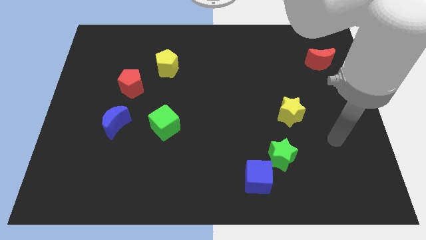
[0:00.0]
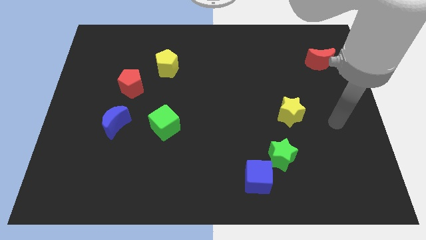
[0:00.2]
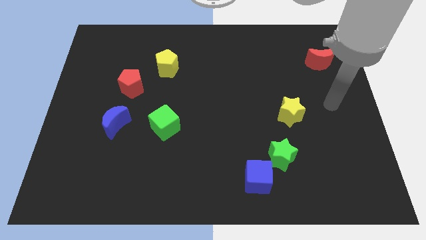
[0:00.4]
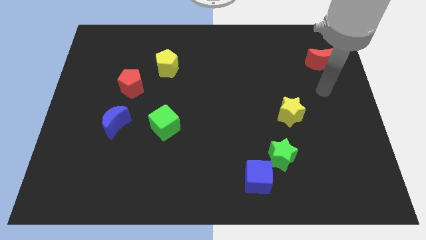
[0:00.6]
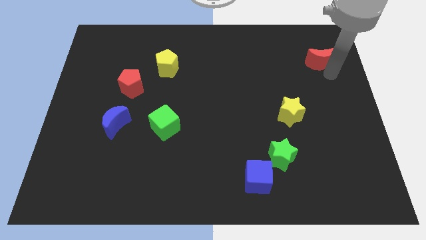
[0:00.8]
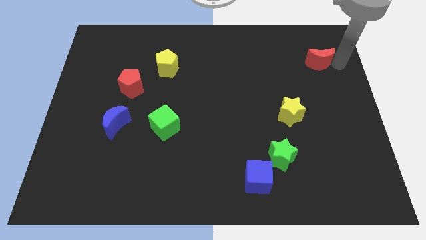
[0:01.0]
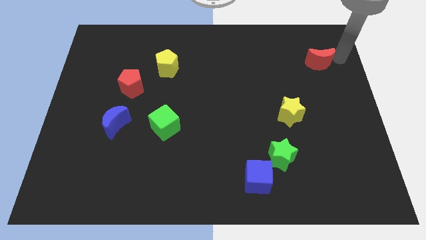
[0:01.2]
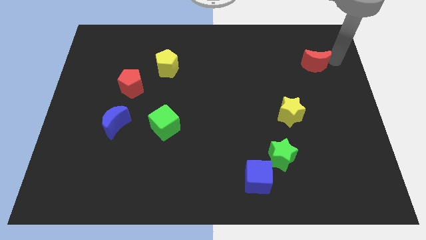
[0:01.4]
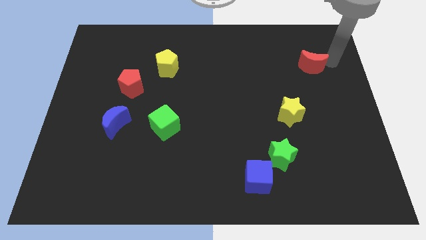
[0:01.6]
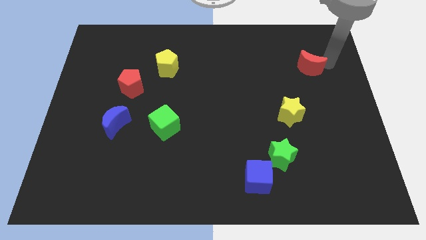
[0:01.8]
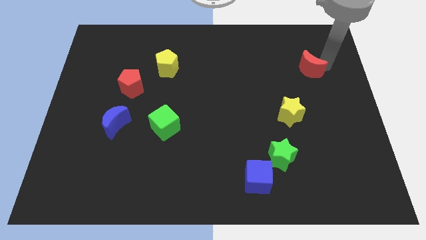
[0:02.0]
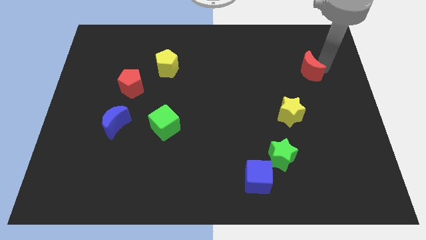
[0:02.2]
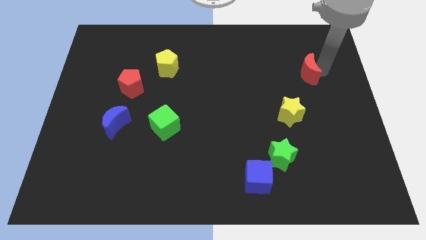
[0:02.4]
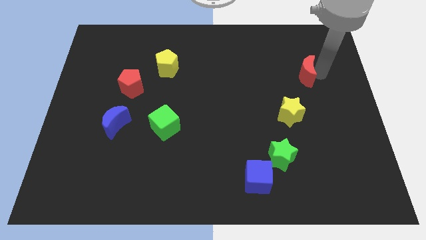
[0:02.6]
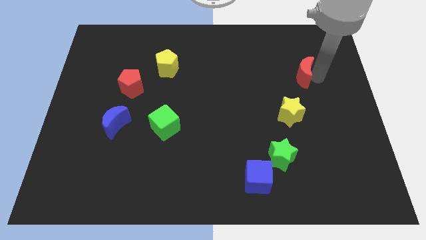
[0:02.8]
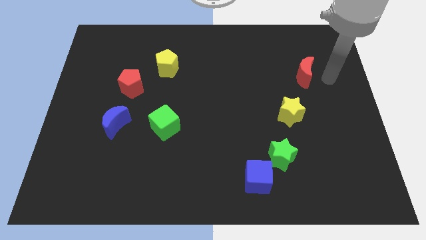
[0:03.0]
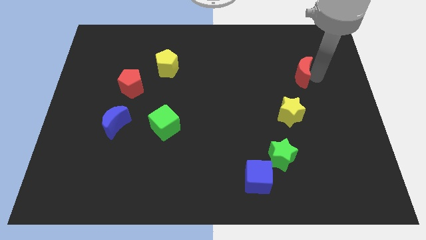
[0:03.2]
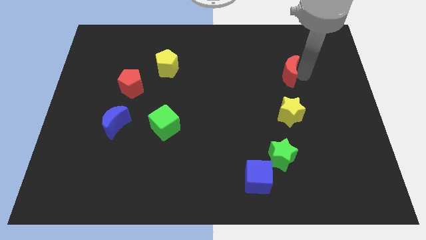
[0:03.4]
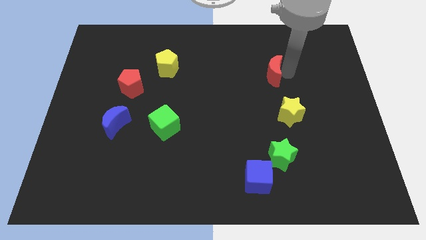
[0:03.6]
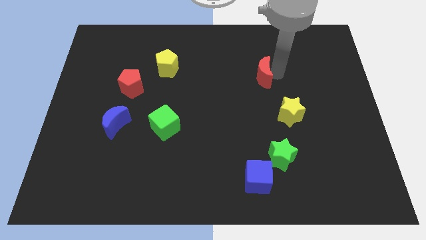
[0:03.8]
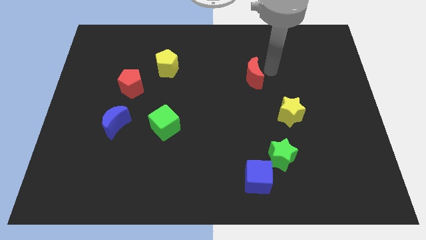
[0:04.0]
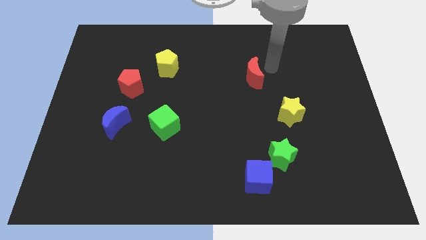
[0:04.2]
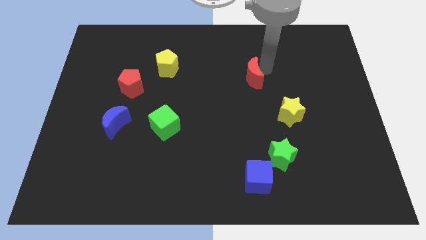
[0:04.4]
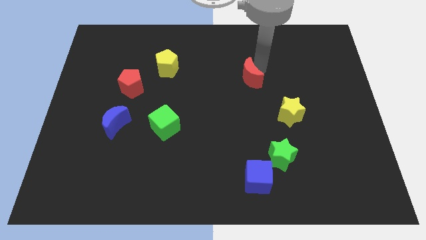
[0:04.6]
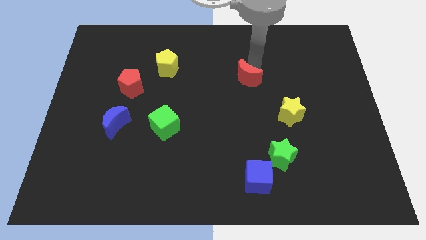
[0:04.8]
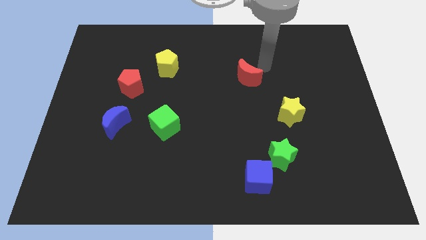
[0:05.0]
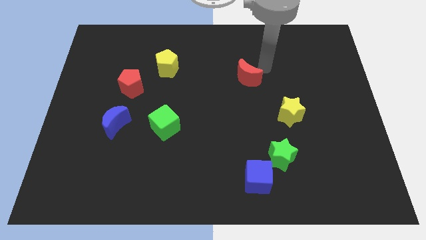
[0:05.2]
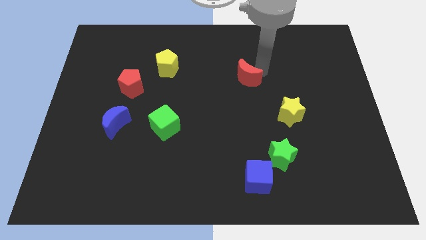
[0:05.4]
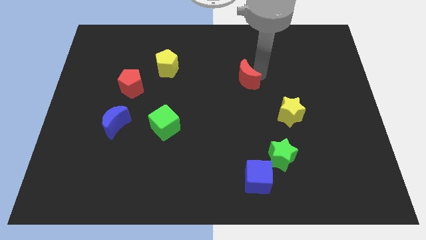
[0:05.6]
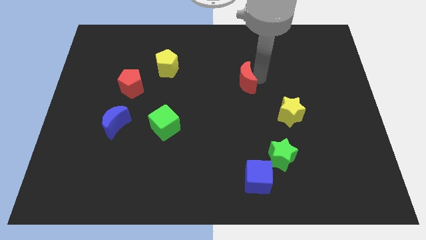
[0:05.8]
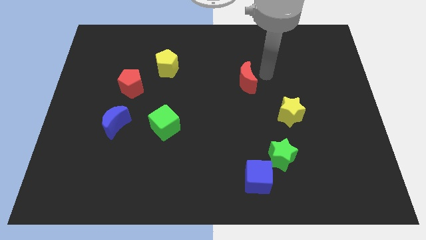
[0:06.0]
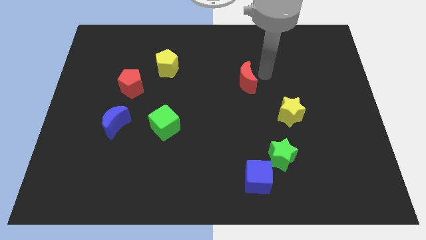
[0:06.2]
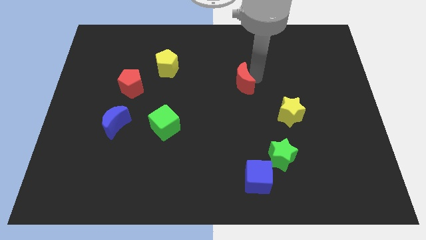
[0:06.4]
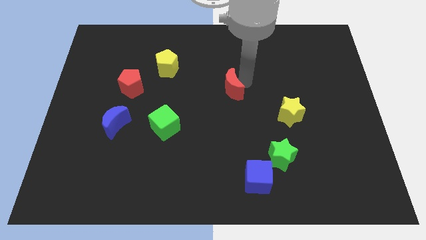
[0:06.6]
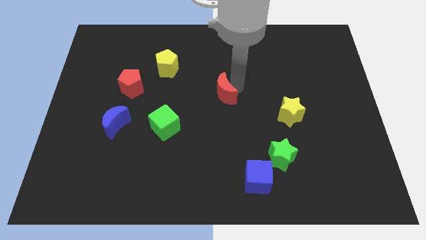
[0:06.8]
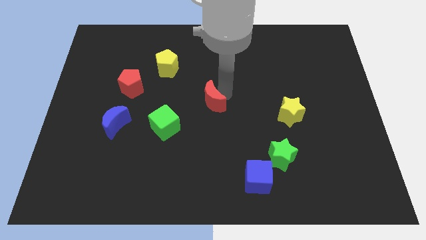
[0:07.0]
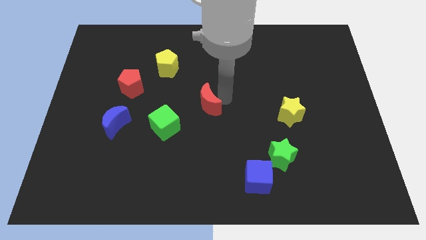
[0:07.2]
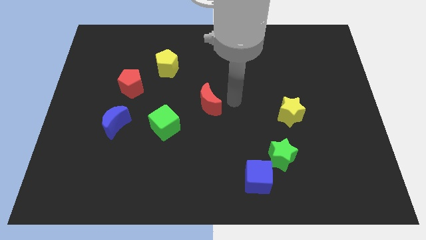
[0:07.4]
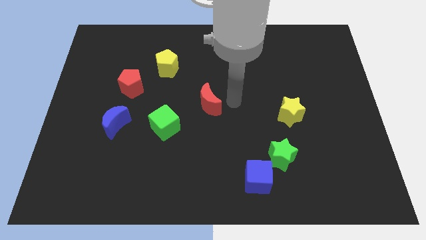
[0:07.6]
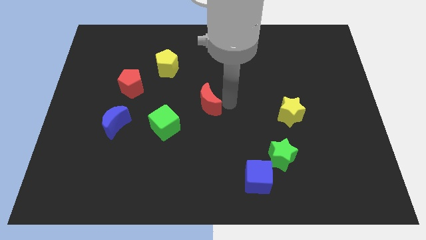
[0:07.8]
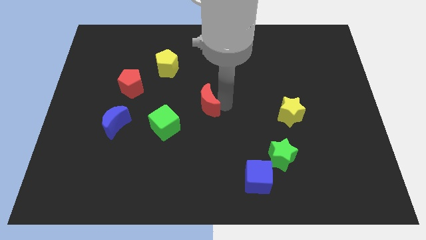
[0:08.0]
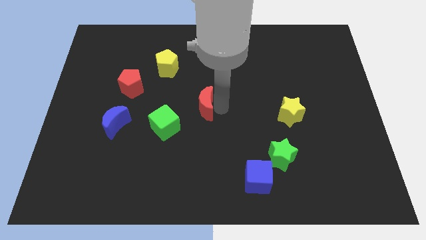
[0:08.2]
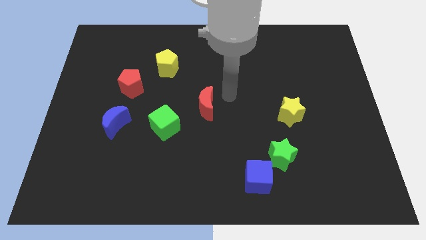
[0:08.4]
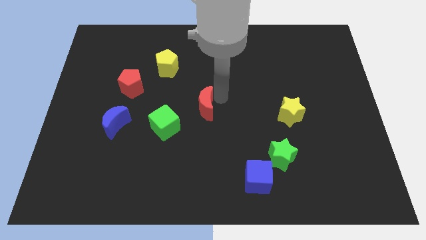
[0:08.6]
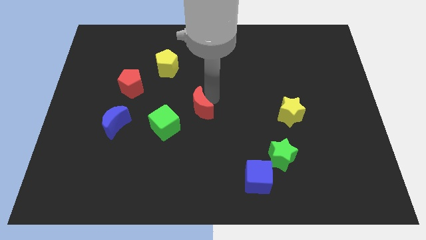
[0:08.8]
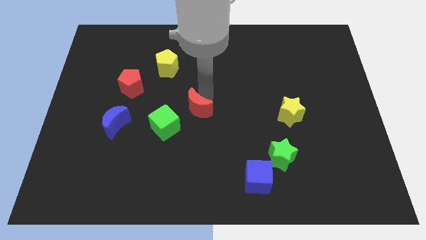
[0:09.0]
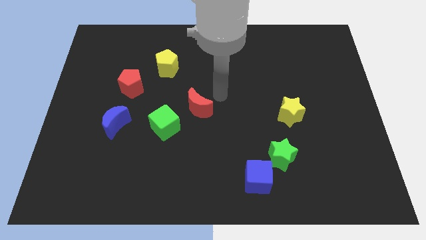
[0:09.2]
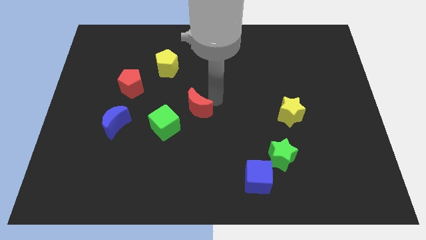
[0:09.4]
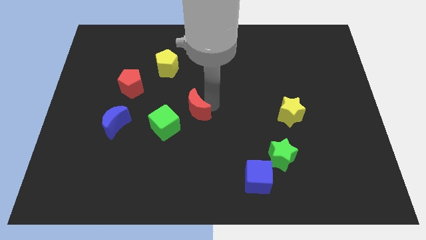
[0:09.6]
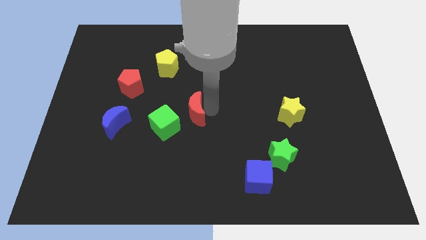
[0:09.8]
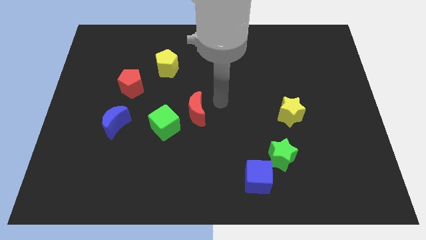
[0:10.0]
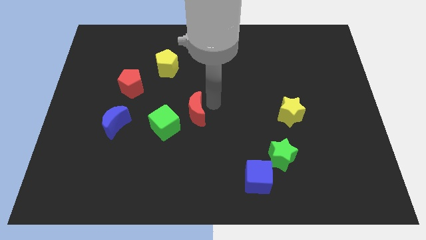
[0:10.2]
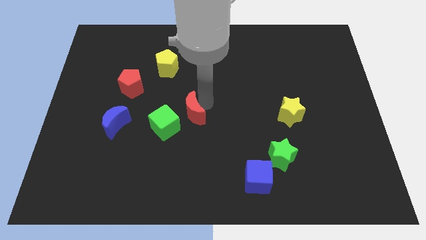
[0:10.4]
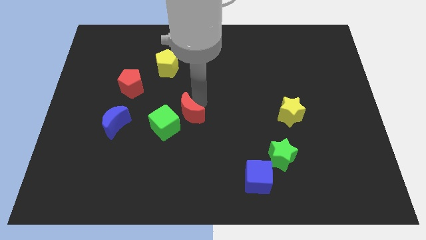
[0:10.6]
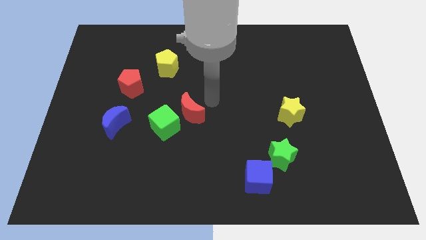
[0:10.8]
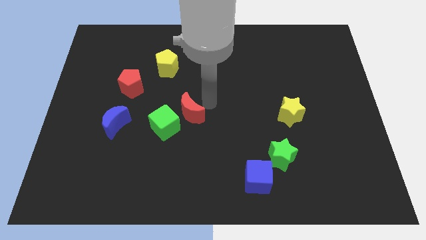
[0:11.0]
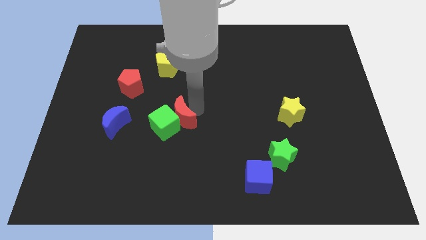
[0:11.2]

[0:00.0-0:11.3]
slide the red moon next to the green cube

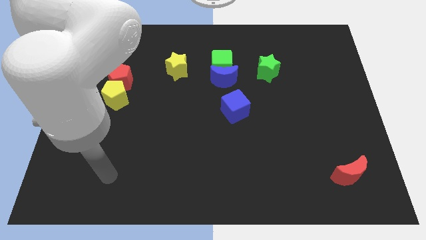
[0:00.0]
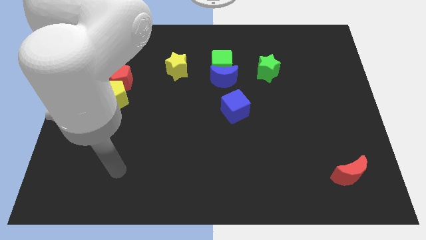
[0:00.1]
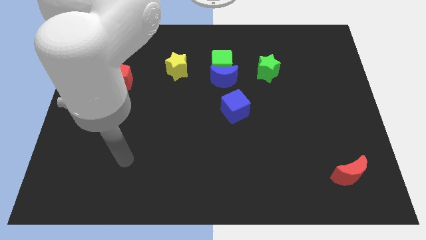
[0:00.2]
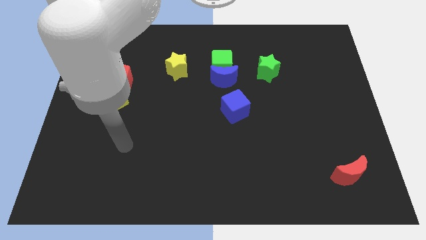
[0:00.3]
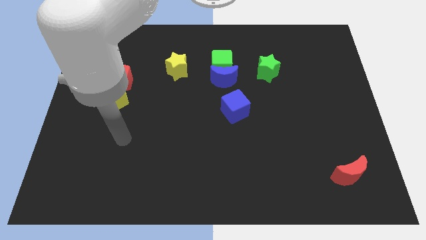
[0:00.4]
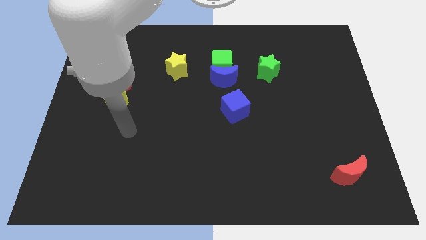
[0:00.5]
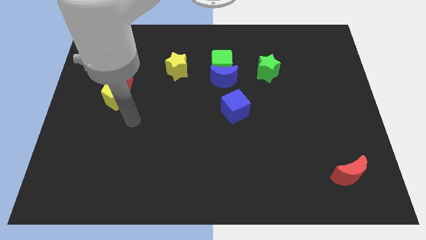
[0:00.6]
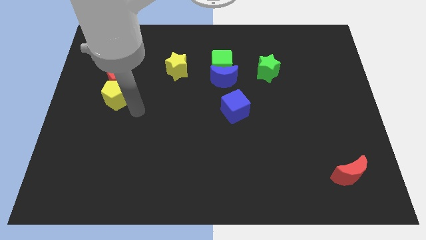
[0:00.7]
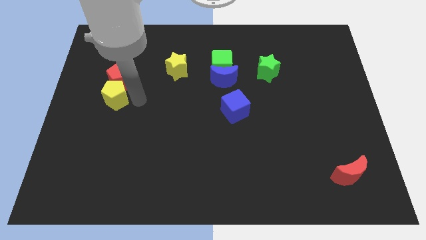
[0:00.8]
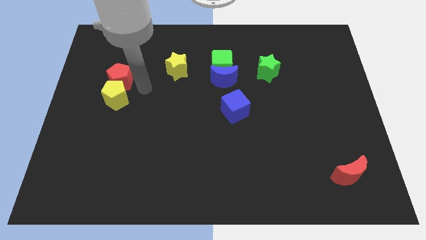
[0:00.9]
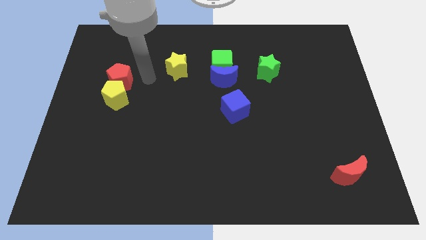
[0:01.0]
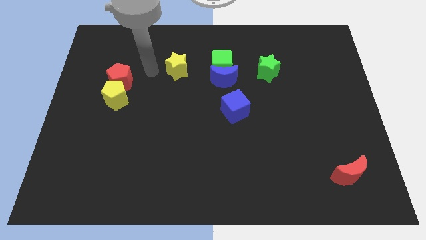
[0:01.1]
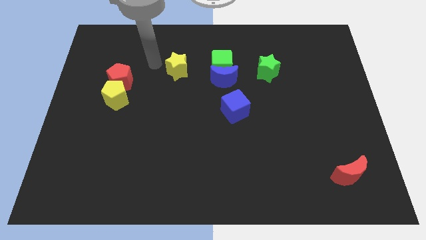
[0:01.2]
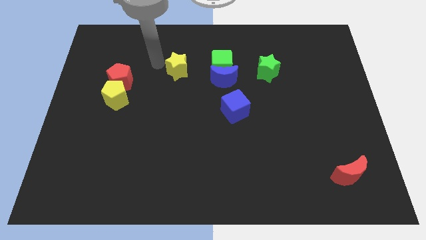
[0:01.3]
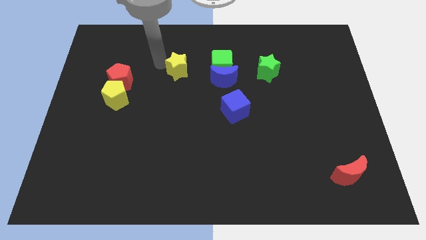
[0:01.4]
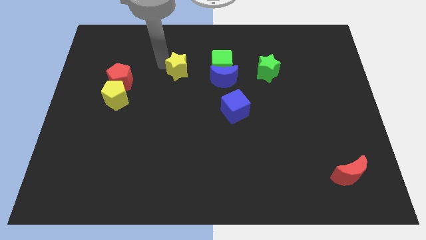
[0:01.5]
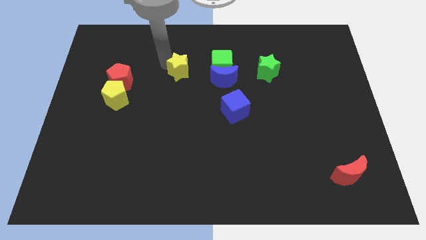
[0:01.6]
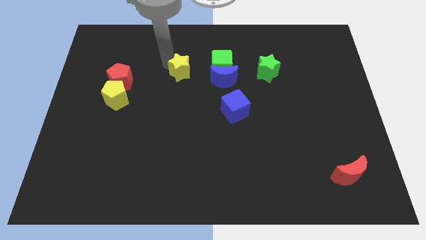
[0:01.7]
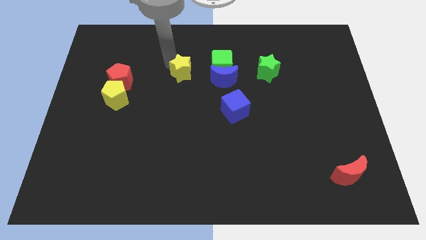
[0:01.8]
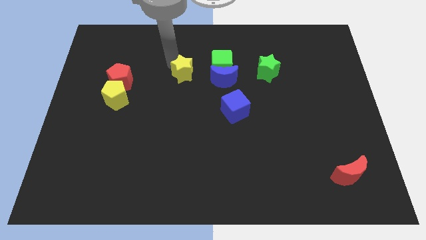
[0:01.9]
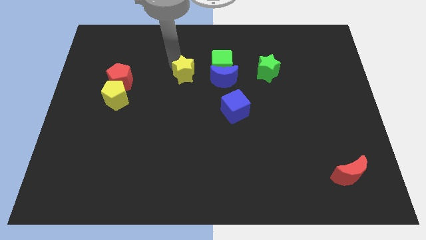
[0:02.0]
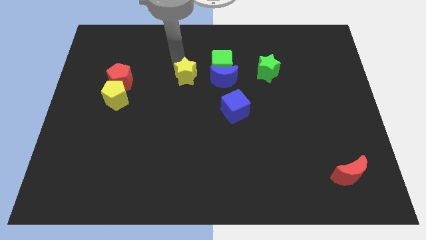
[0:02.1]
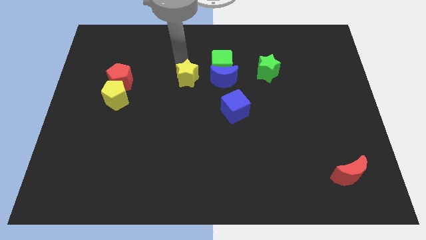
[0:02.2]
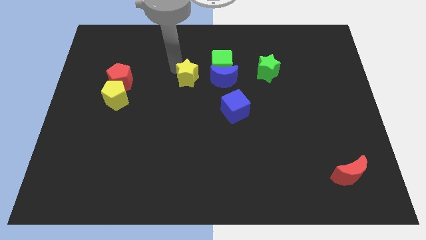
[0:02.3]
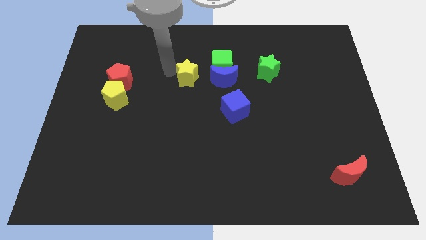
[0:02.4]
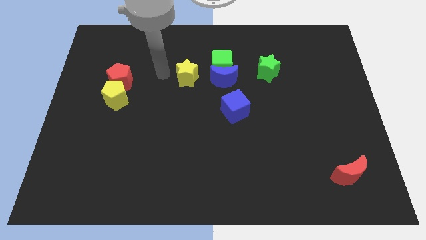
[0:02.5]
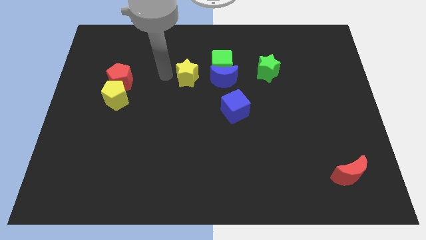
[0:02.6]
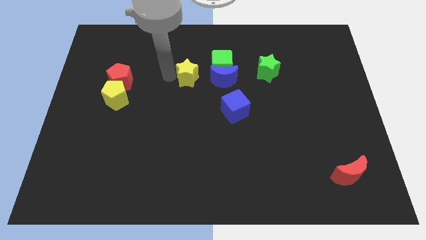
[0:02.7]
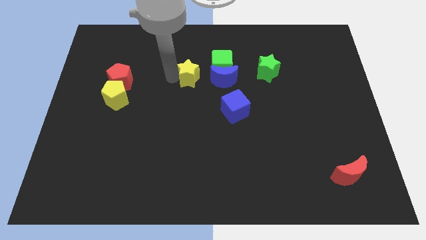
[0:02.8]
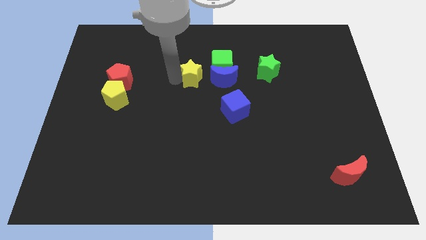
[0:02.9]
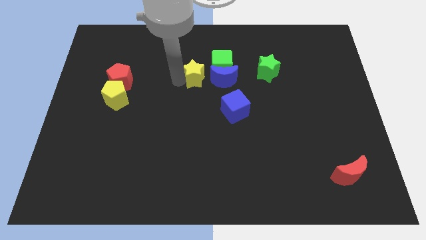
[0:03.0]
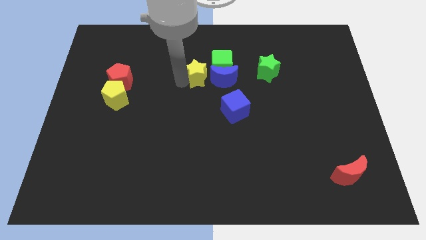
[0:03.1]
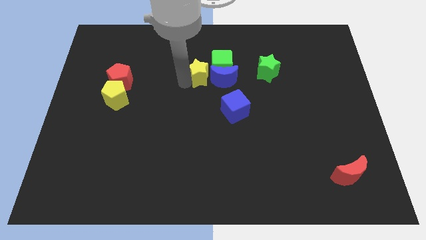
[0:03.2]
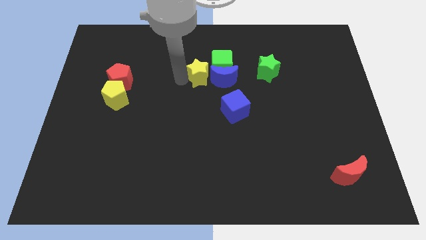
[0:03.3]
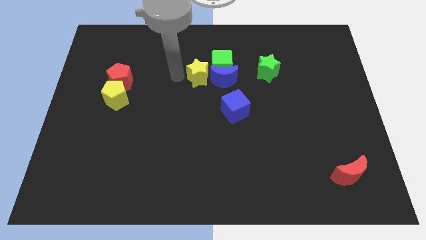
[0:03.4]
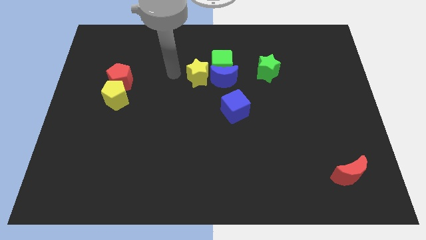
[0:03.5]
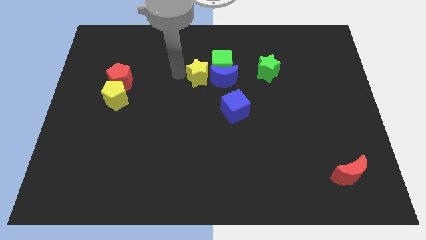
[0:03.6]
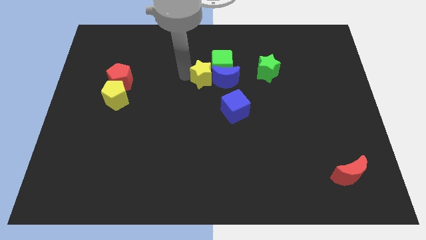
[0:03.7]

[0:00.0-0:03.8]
push the yellow star next to the blue moon
